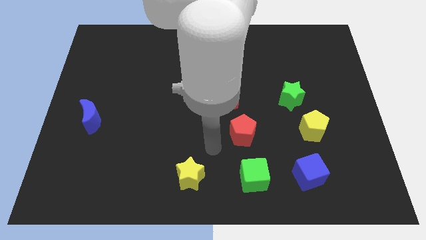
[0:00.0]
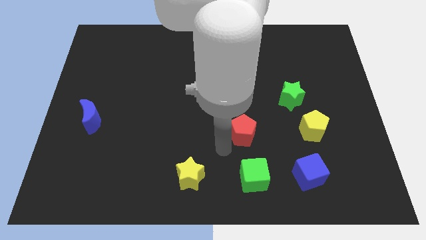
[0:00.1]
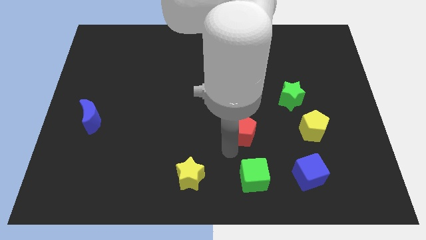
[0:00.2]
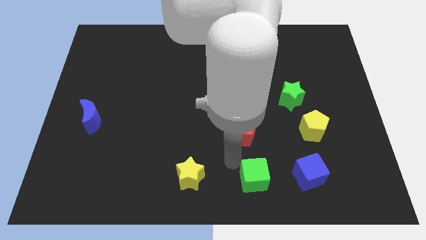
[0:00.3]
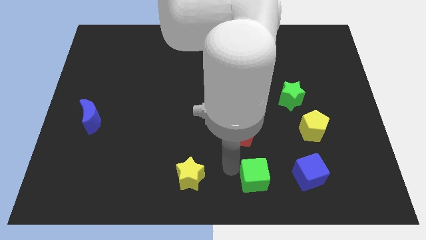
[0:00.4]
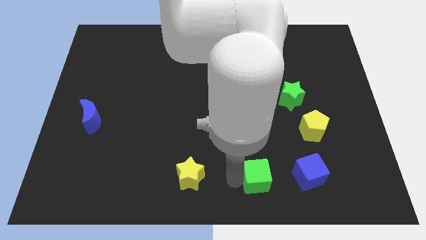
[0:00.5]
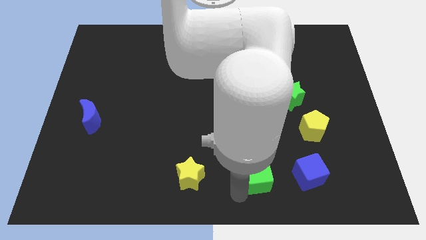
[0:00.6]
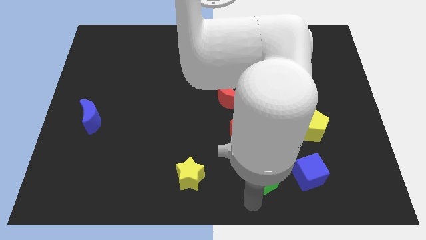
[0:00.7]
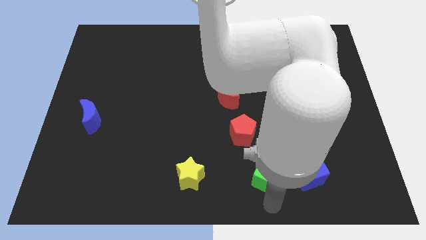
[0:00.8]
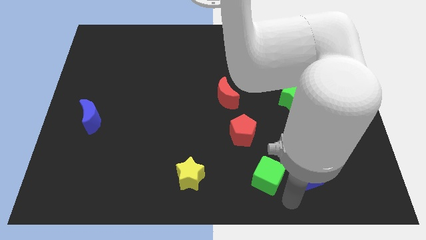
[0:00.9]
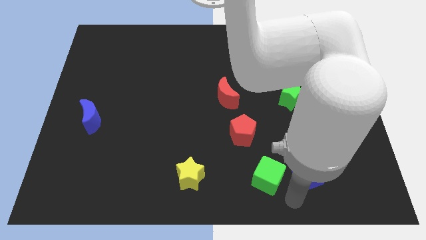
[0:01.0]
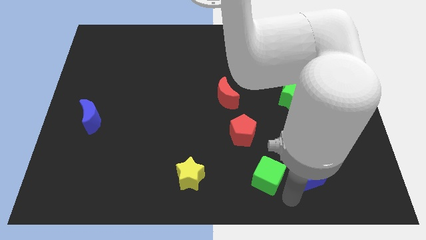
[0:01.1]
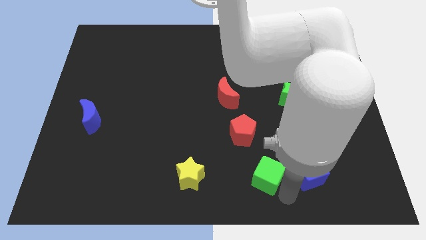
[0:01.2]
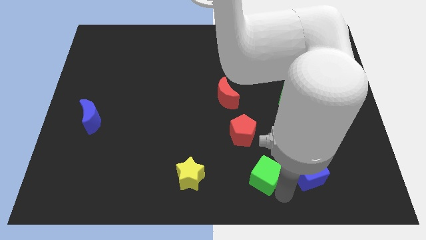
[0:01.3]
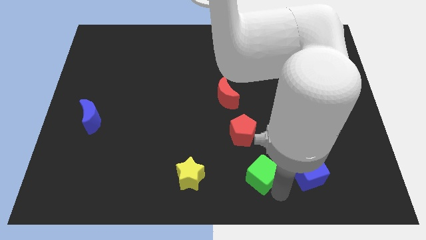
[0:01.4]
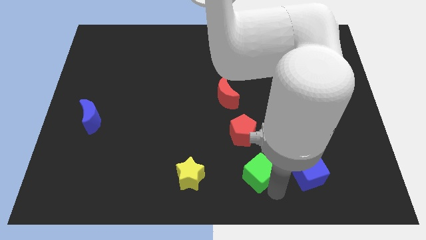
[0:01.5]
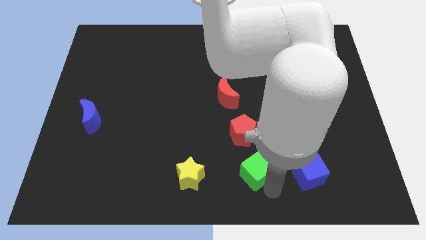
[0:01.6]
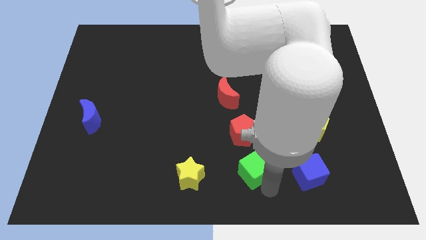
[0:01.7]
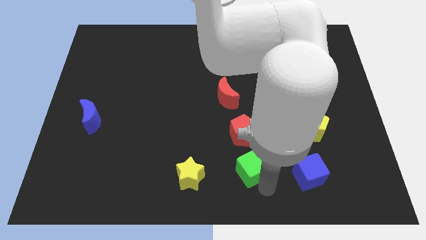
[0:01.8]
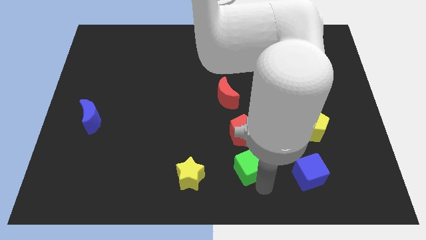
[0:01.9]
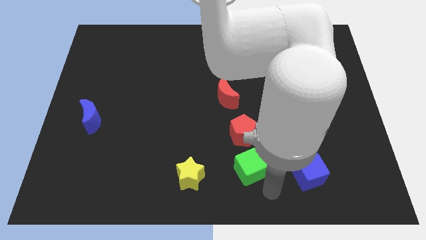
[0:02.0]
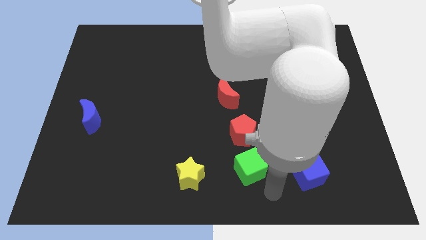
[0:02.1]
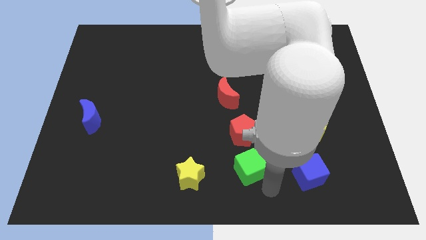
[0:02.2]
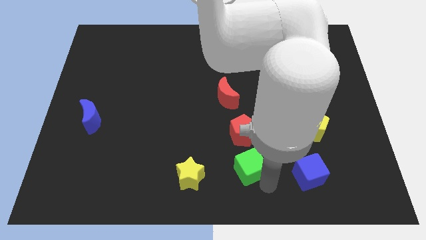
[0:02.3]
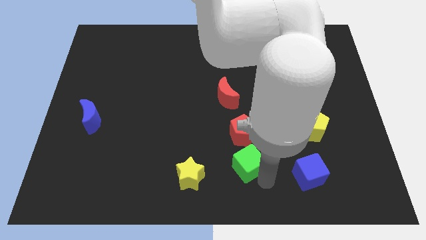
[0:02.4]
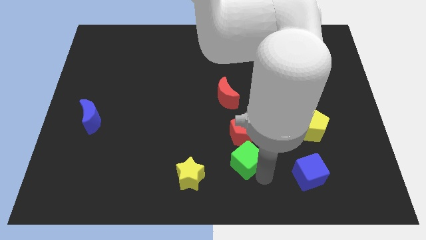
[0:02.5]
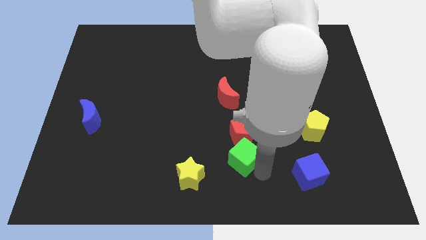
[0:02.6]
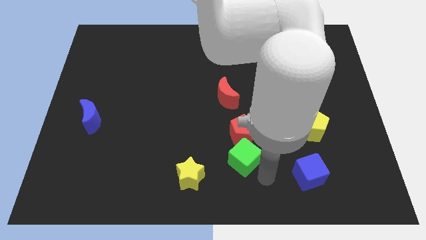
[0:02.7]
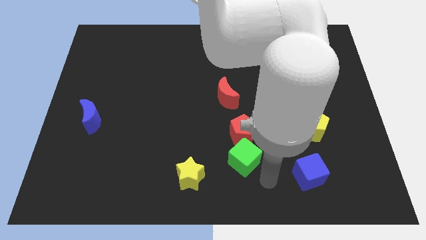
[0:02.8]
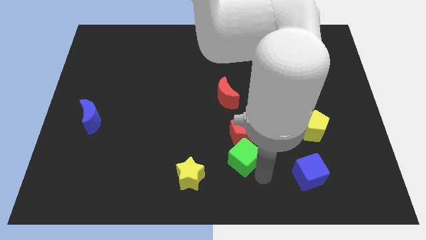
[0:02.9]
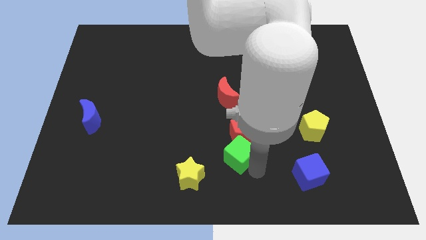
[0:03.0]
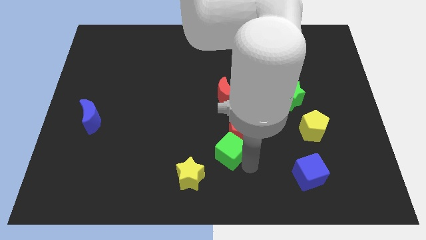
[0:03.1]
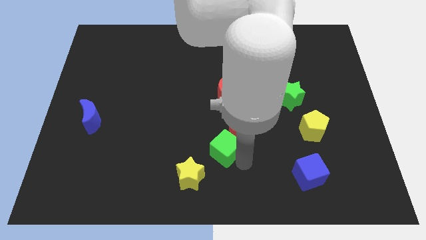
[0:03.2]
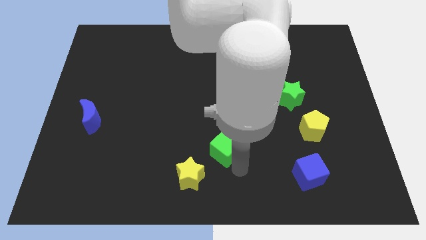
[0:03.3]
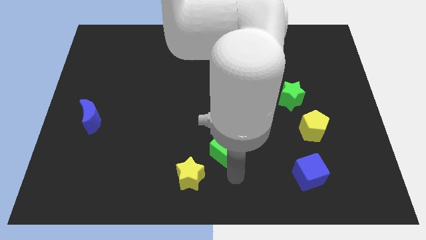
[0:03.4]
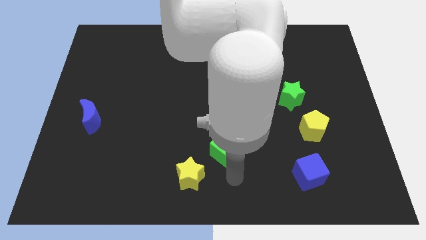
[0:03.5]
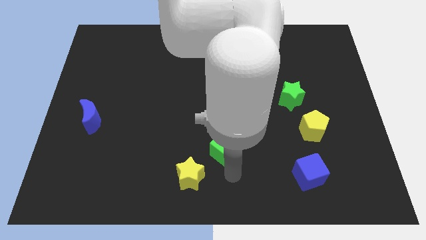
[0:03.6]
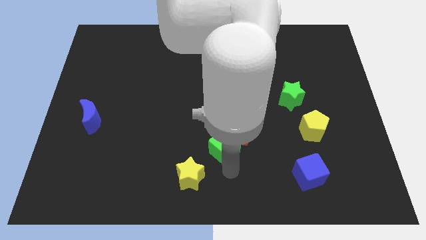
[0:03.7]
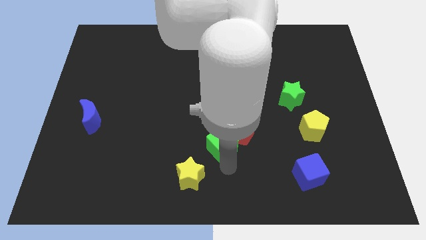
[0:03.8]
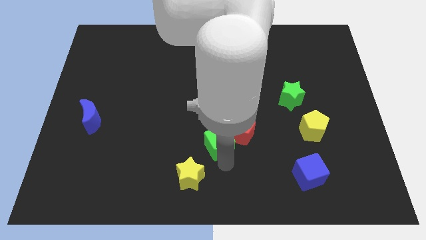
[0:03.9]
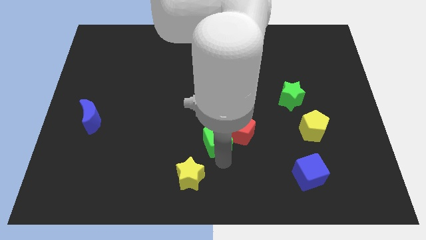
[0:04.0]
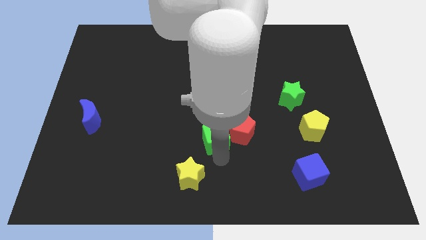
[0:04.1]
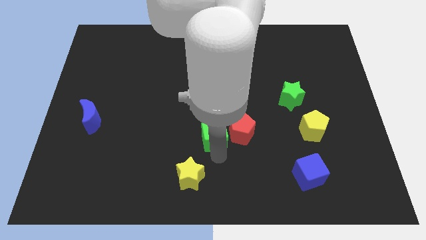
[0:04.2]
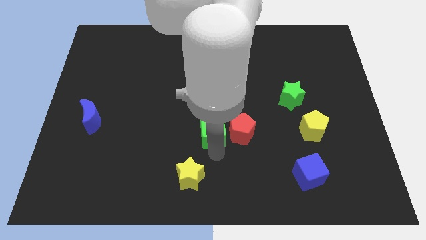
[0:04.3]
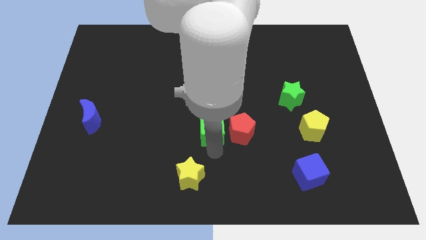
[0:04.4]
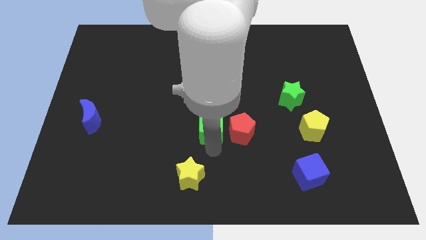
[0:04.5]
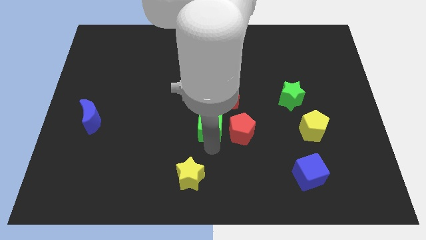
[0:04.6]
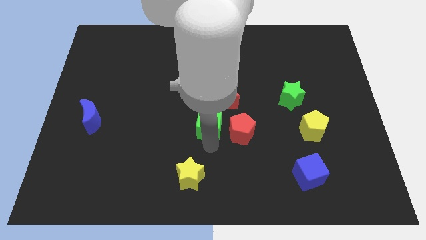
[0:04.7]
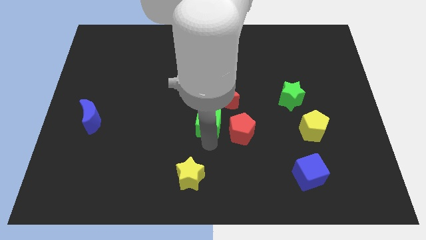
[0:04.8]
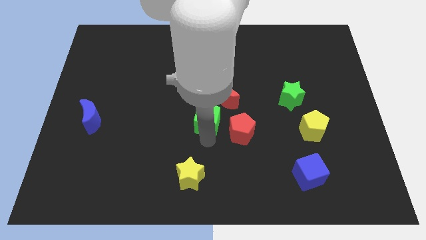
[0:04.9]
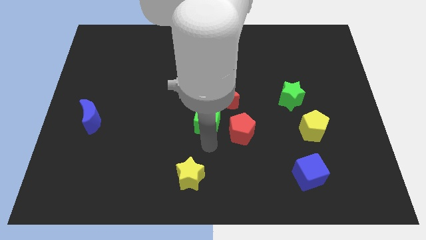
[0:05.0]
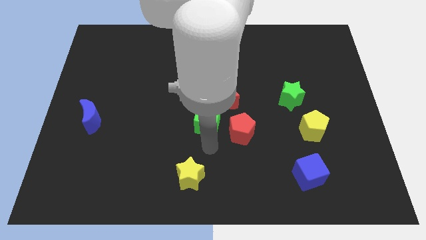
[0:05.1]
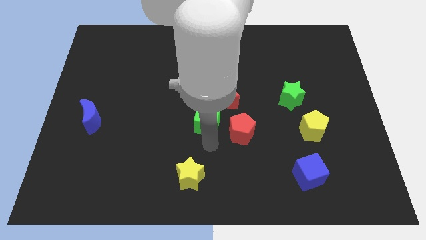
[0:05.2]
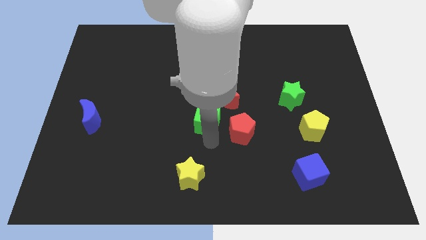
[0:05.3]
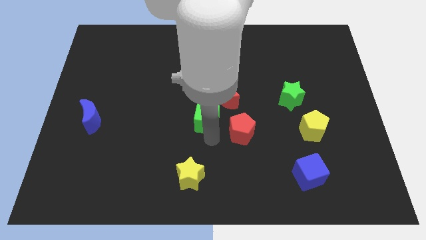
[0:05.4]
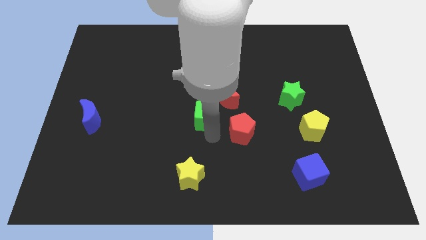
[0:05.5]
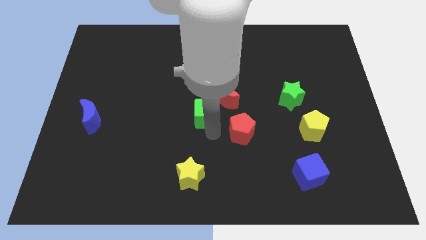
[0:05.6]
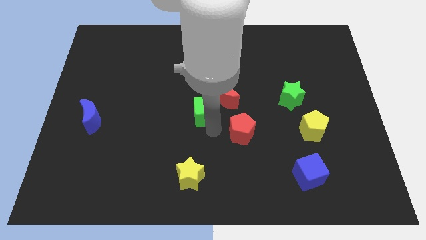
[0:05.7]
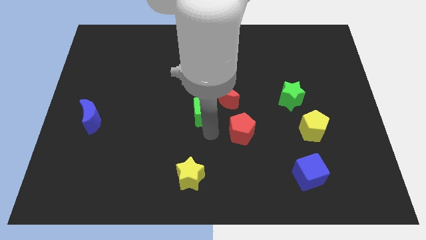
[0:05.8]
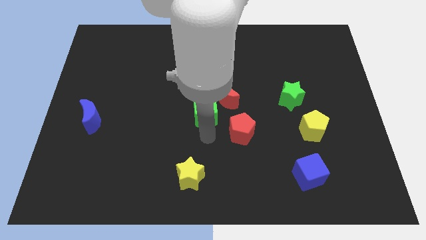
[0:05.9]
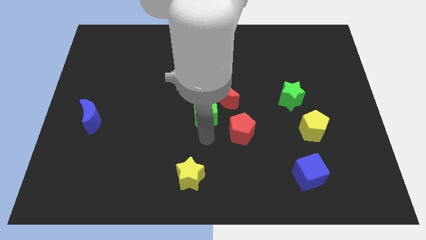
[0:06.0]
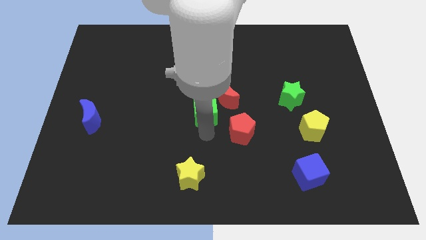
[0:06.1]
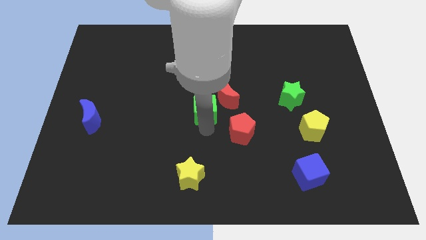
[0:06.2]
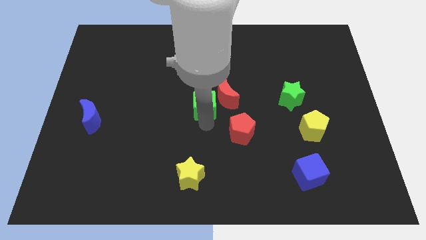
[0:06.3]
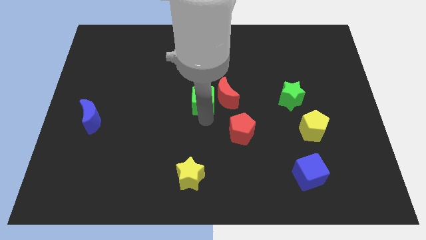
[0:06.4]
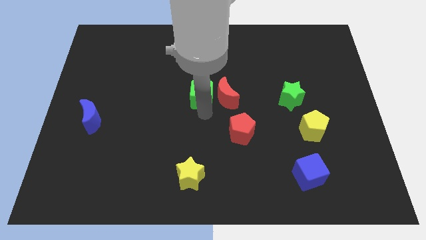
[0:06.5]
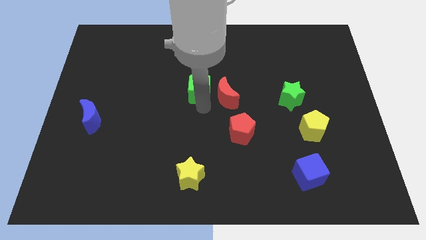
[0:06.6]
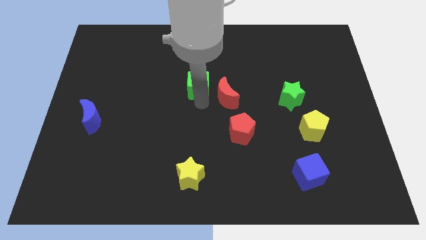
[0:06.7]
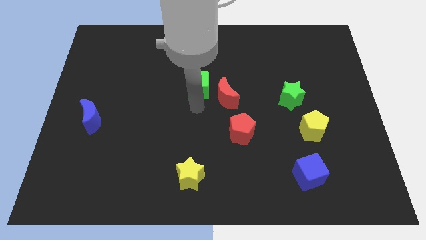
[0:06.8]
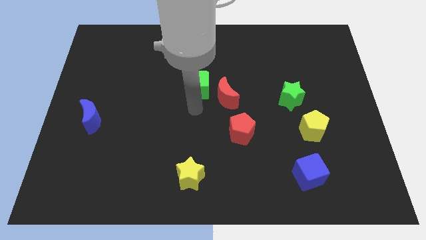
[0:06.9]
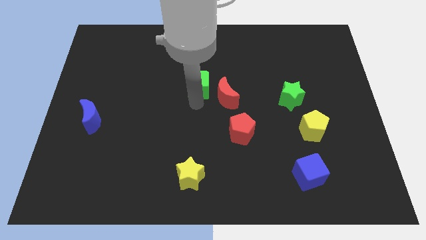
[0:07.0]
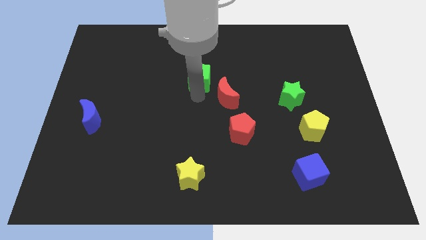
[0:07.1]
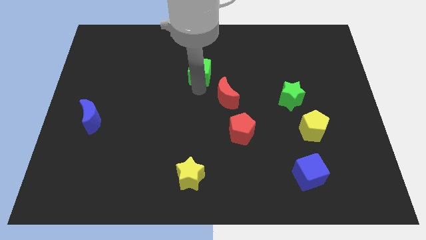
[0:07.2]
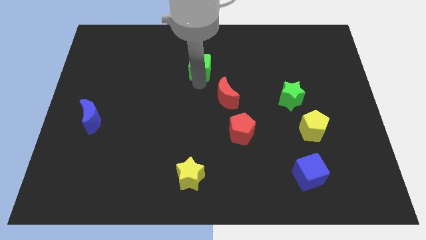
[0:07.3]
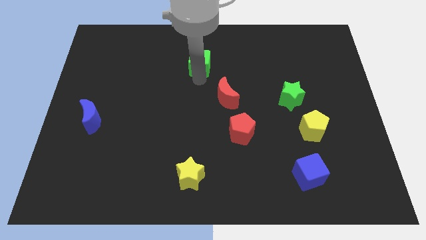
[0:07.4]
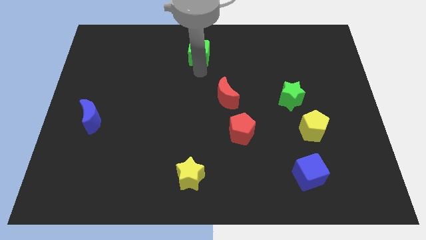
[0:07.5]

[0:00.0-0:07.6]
put the green cube to the top
